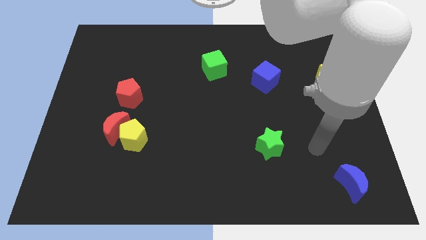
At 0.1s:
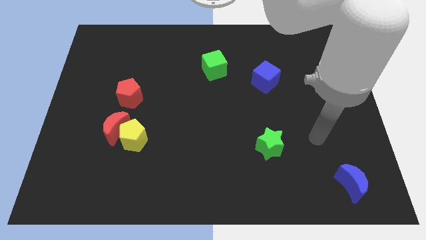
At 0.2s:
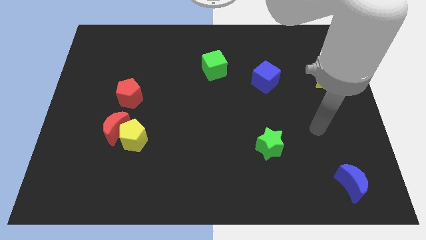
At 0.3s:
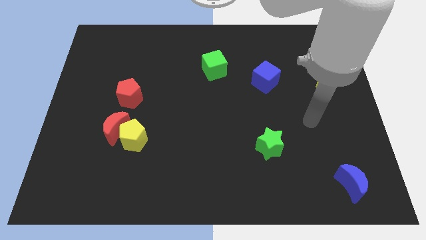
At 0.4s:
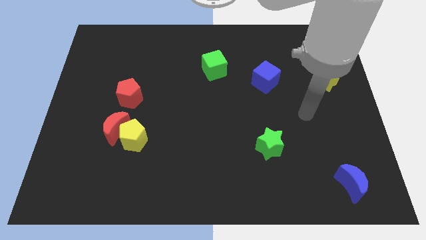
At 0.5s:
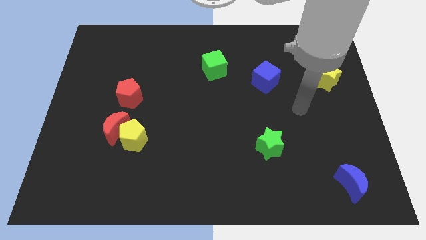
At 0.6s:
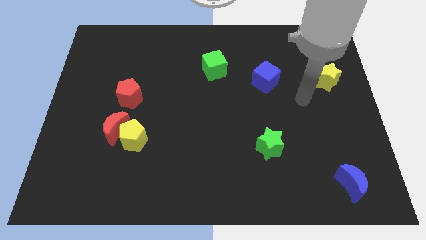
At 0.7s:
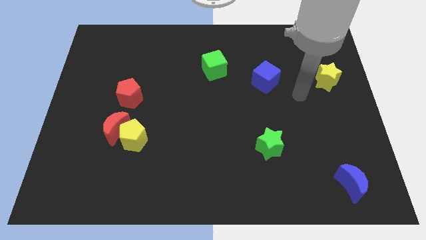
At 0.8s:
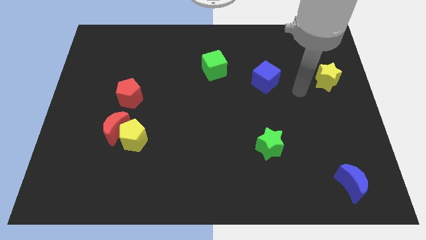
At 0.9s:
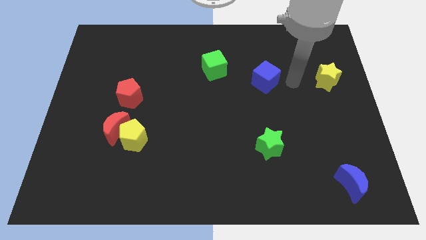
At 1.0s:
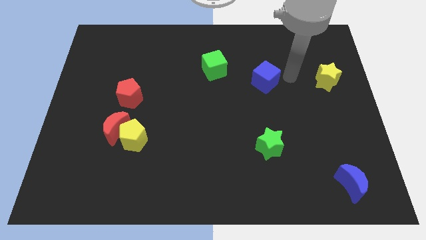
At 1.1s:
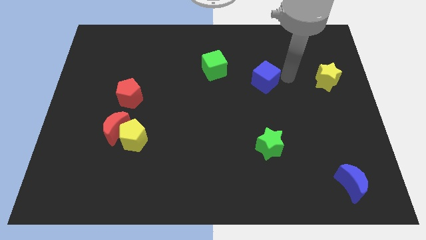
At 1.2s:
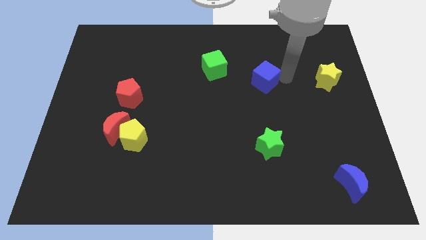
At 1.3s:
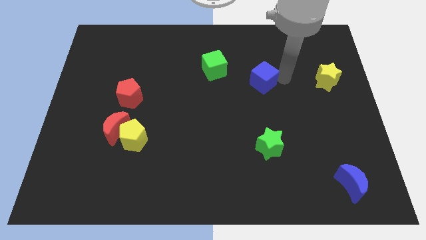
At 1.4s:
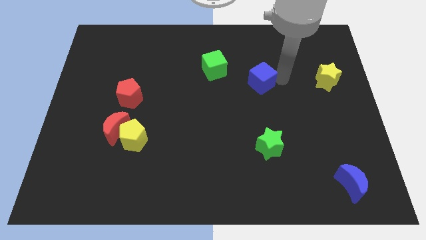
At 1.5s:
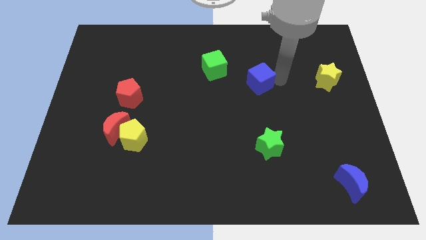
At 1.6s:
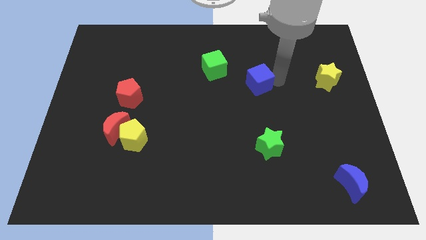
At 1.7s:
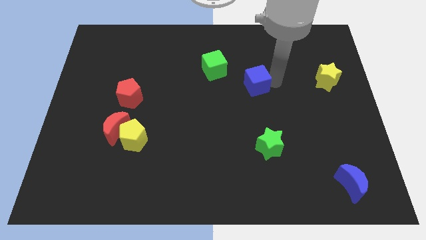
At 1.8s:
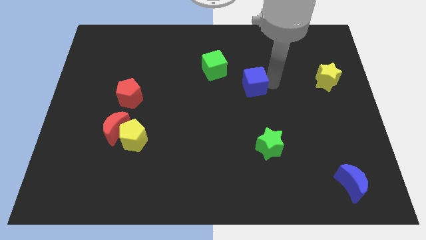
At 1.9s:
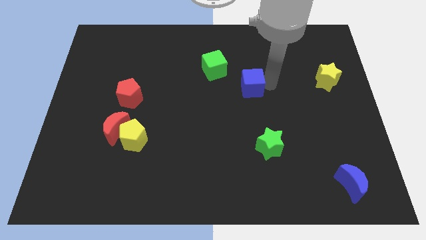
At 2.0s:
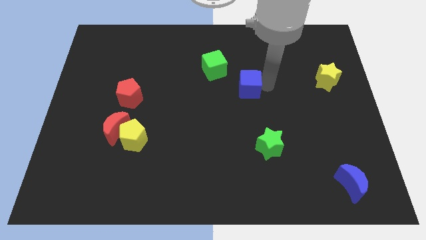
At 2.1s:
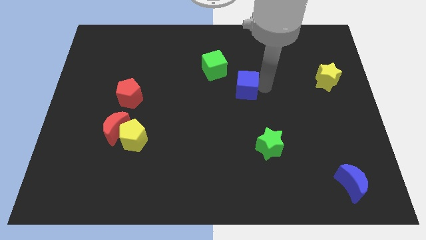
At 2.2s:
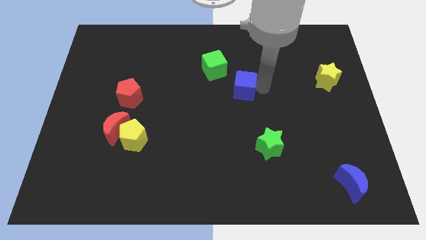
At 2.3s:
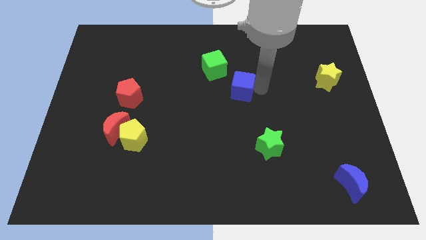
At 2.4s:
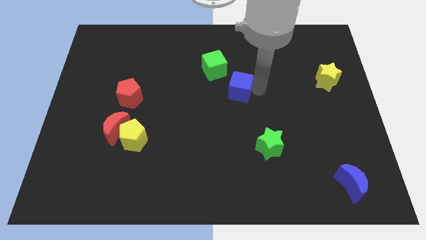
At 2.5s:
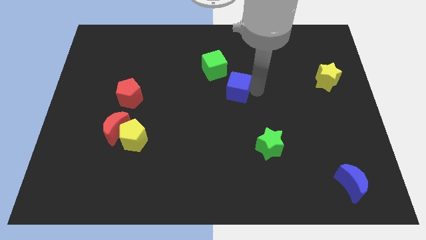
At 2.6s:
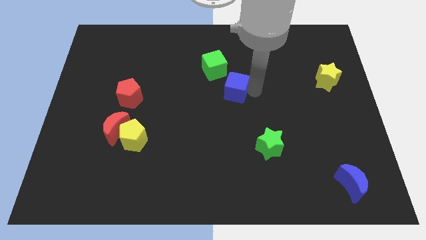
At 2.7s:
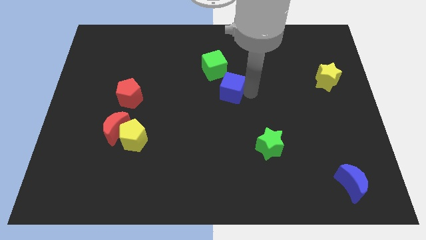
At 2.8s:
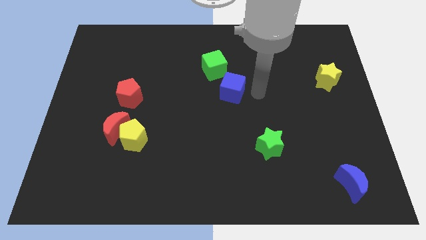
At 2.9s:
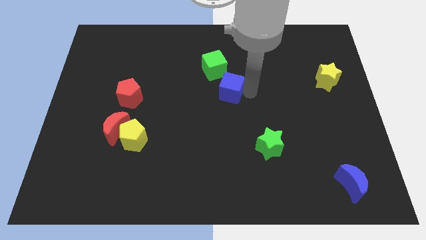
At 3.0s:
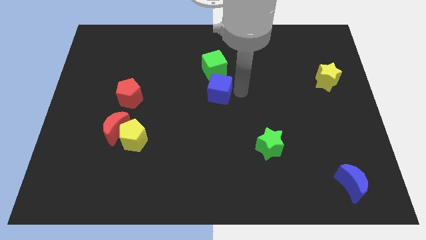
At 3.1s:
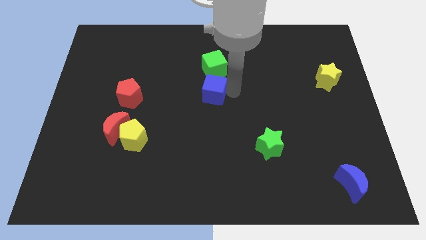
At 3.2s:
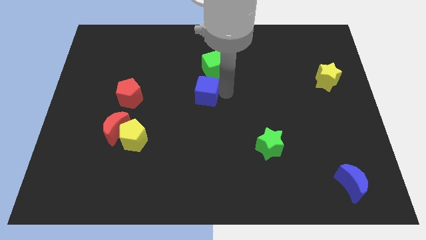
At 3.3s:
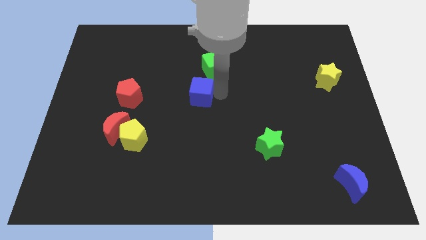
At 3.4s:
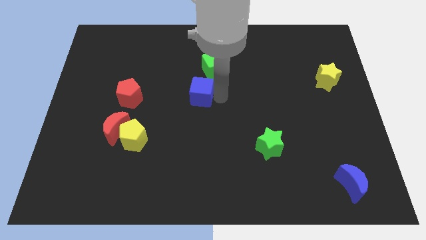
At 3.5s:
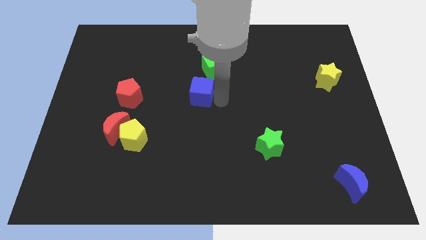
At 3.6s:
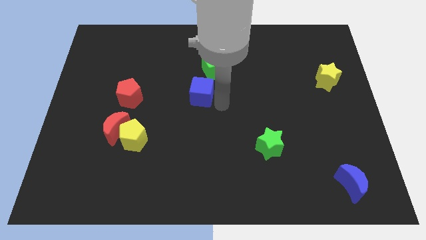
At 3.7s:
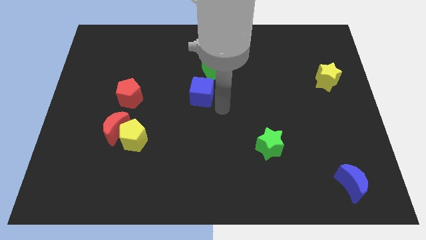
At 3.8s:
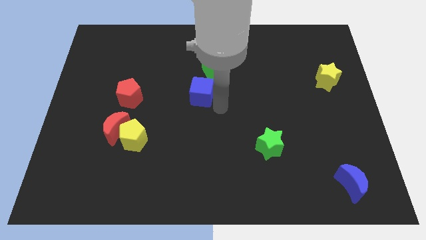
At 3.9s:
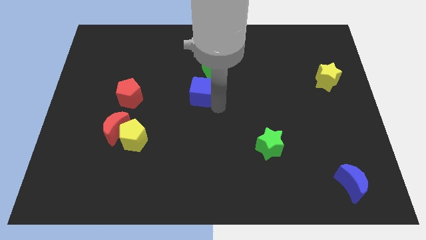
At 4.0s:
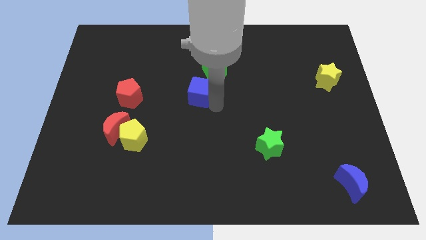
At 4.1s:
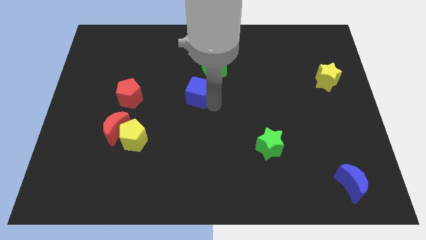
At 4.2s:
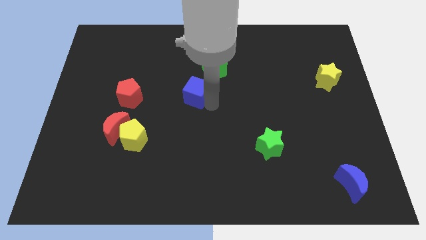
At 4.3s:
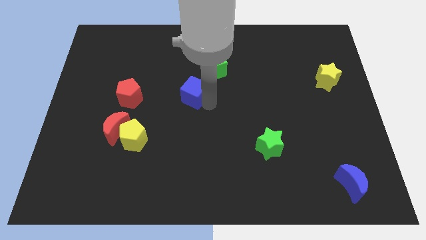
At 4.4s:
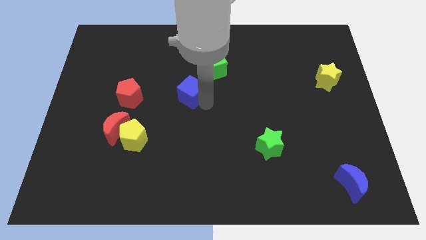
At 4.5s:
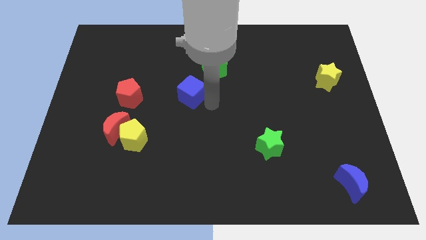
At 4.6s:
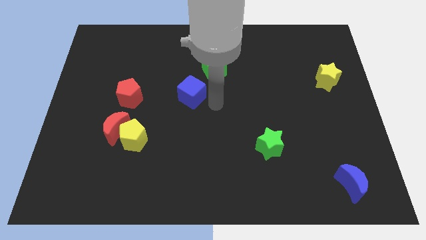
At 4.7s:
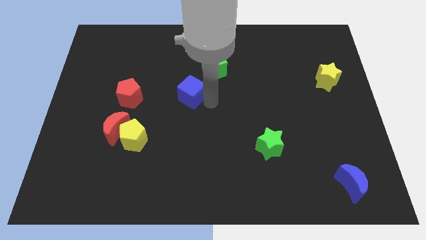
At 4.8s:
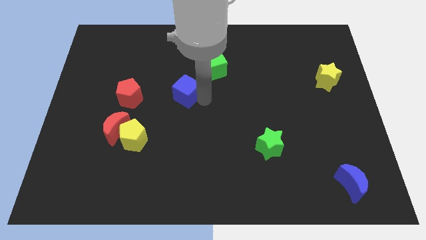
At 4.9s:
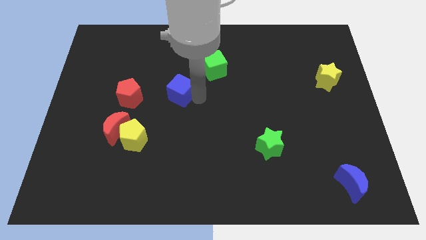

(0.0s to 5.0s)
move the blue cube to the left

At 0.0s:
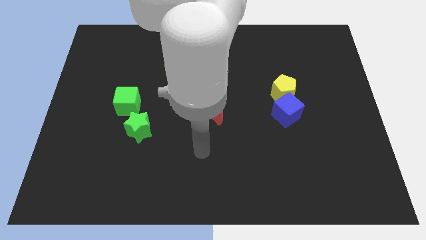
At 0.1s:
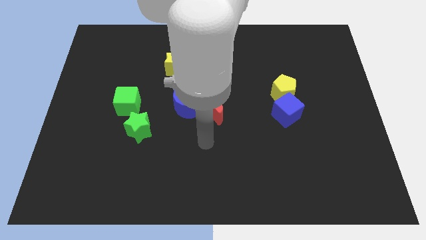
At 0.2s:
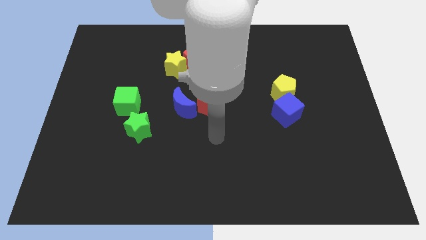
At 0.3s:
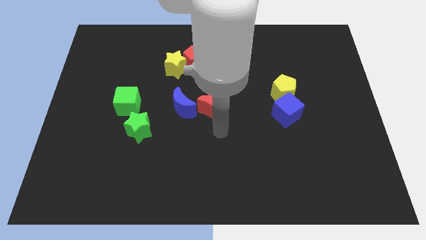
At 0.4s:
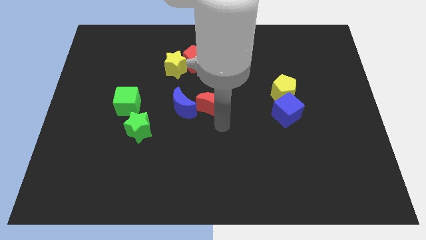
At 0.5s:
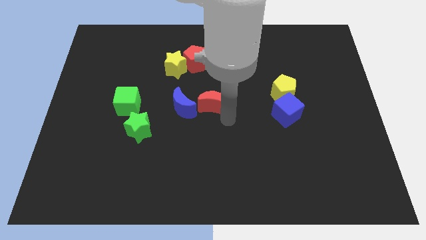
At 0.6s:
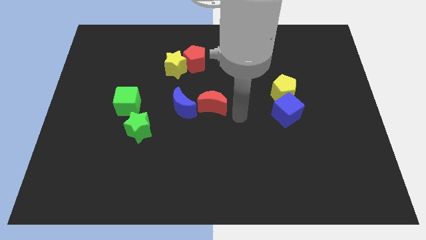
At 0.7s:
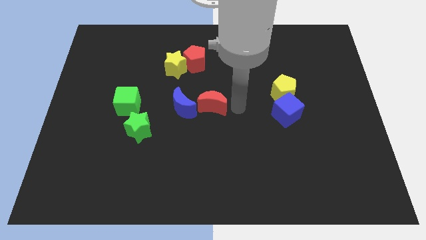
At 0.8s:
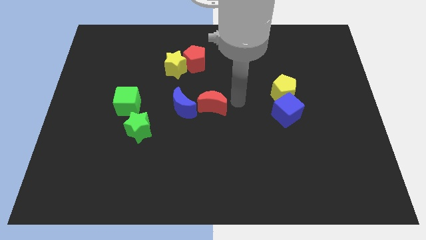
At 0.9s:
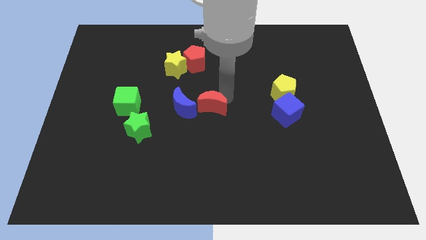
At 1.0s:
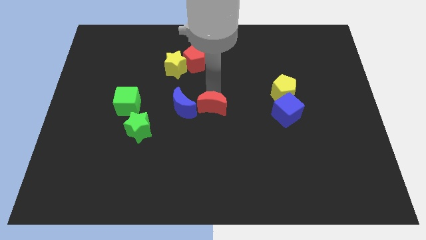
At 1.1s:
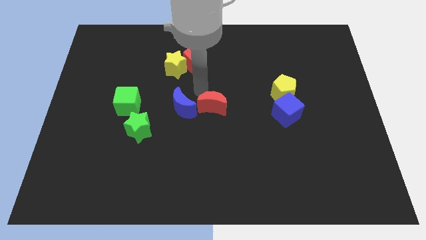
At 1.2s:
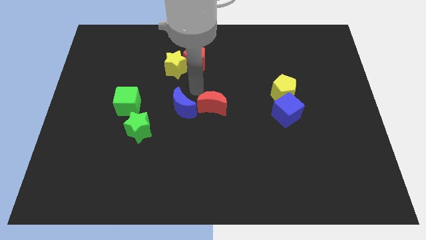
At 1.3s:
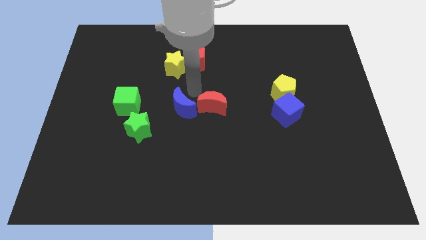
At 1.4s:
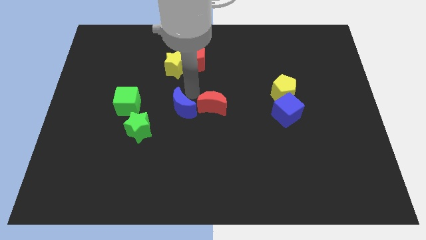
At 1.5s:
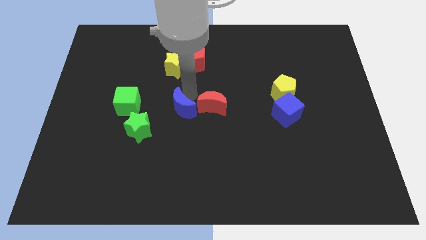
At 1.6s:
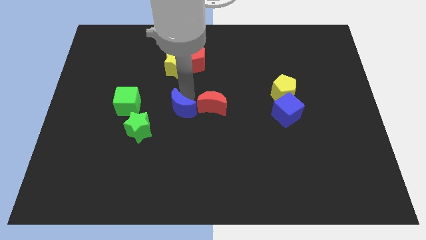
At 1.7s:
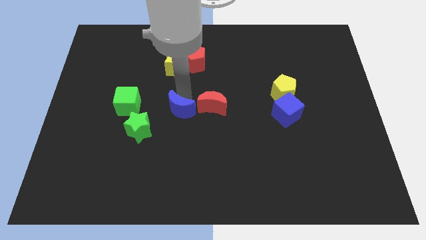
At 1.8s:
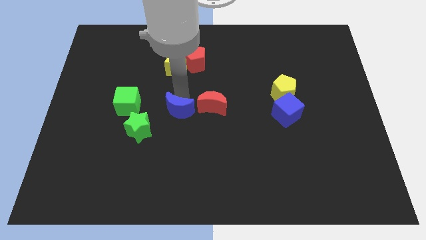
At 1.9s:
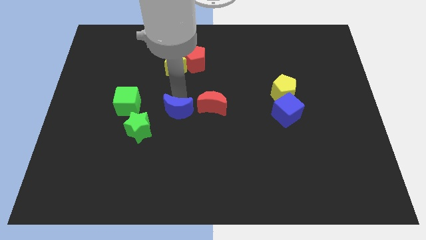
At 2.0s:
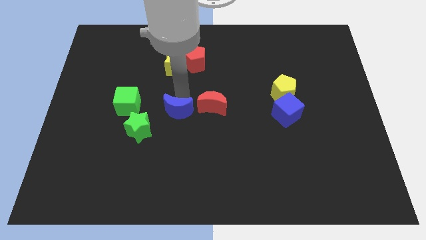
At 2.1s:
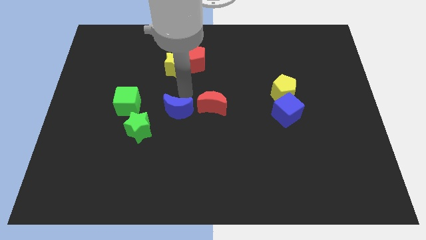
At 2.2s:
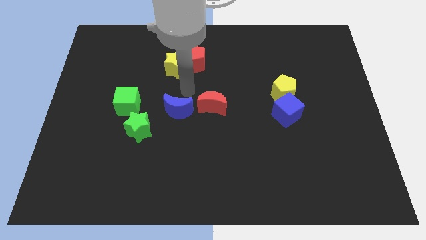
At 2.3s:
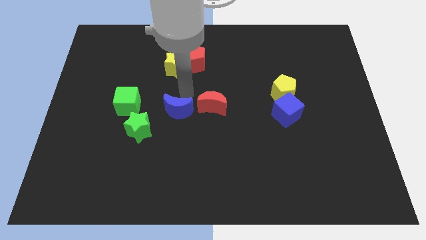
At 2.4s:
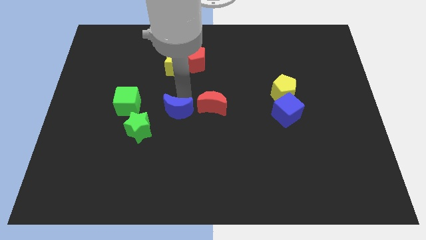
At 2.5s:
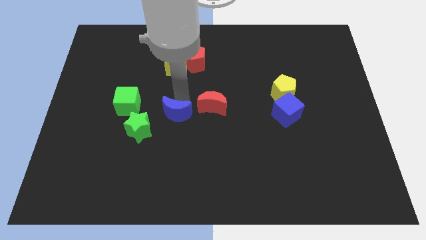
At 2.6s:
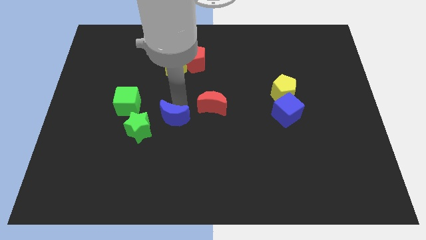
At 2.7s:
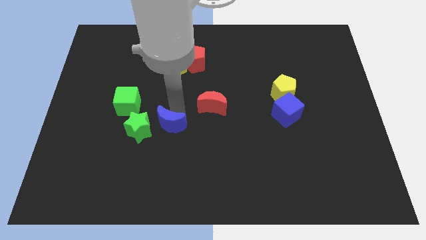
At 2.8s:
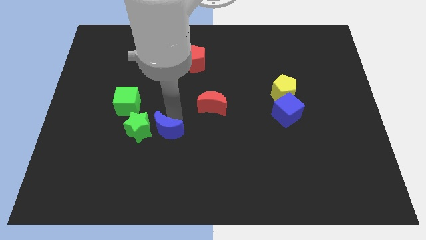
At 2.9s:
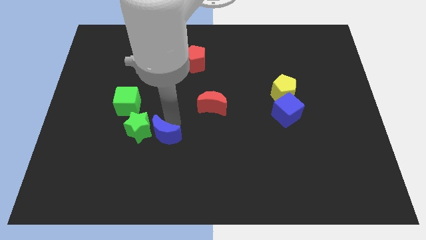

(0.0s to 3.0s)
move the blue moon somewhat down and left
